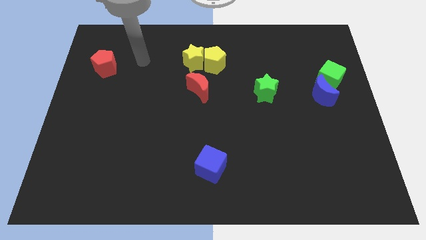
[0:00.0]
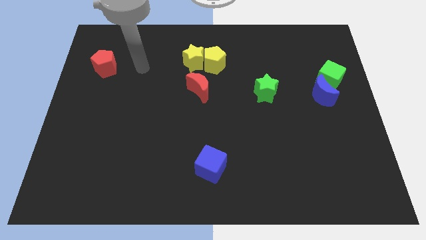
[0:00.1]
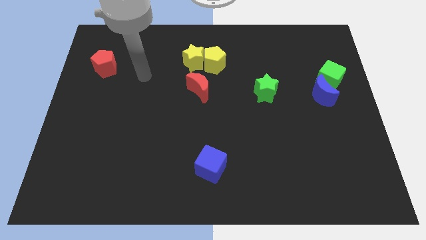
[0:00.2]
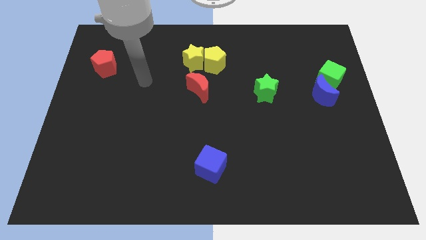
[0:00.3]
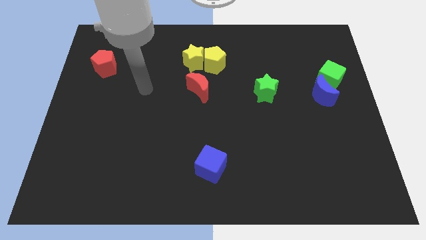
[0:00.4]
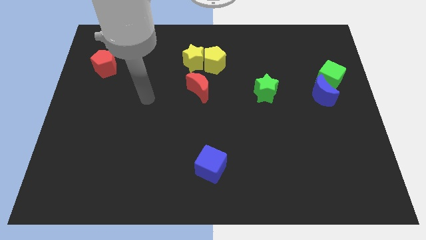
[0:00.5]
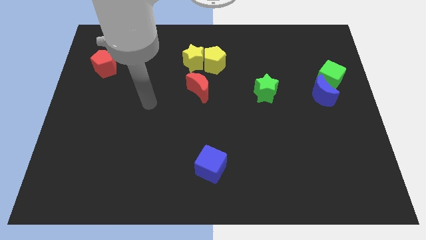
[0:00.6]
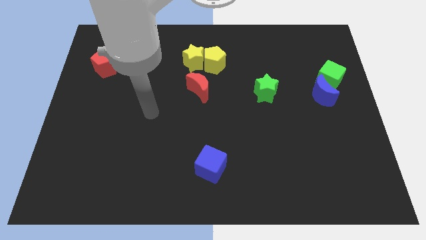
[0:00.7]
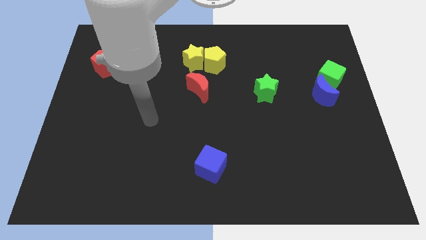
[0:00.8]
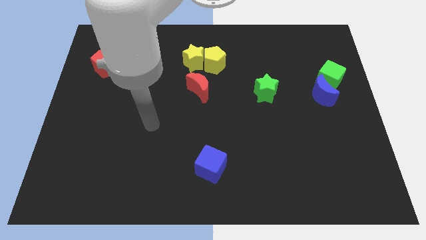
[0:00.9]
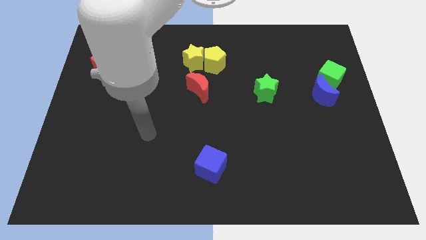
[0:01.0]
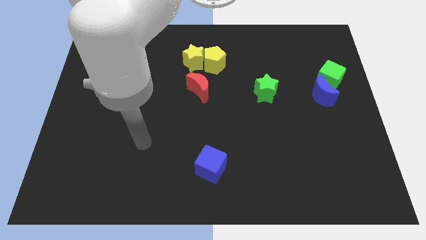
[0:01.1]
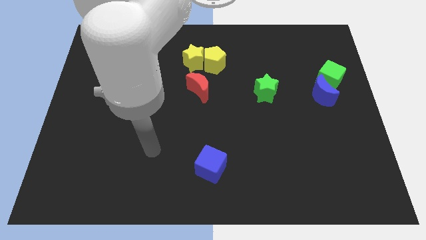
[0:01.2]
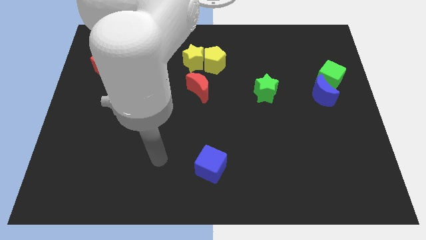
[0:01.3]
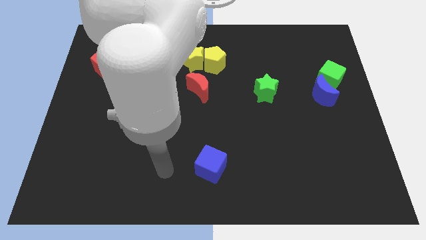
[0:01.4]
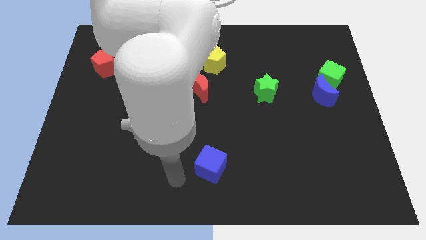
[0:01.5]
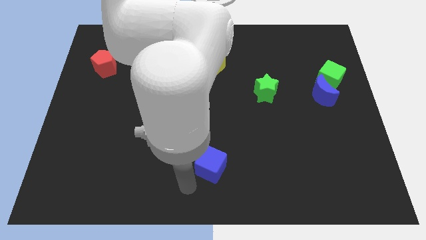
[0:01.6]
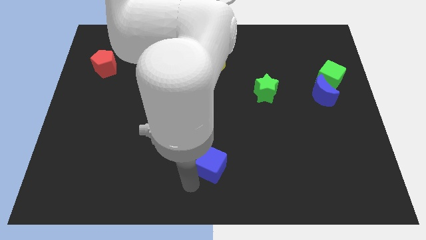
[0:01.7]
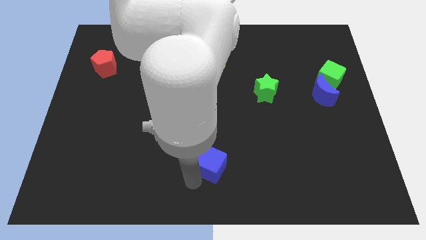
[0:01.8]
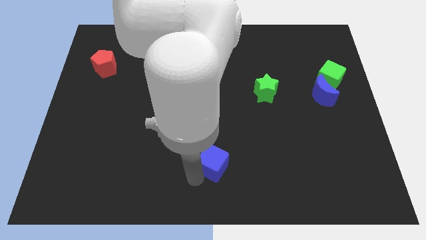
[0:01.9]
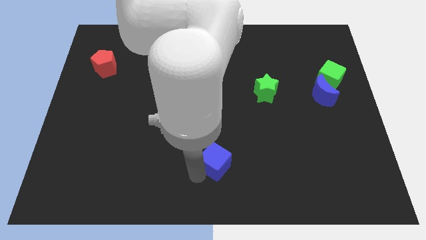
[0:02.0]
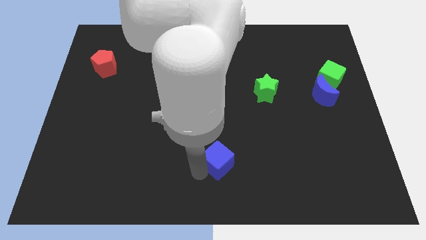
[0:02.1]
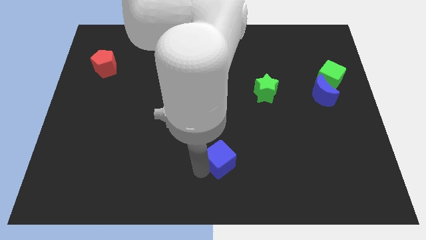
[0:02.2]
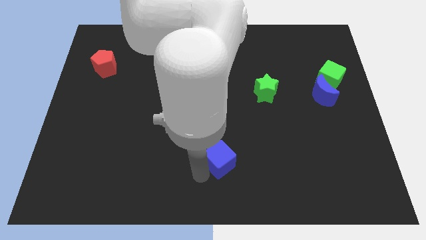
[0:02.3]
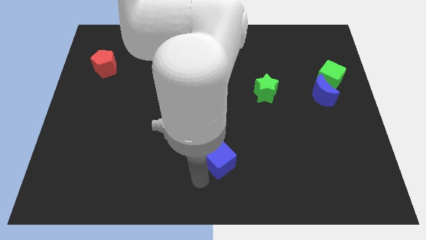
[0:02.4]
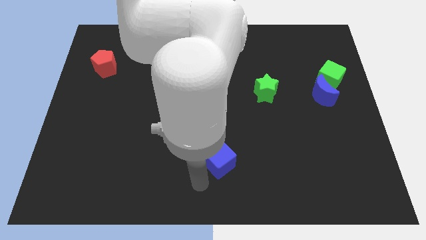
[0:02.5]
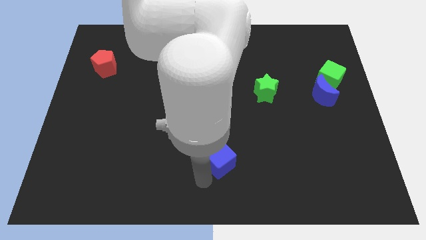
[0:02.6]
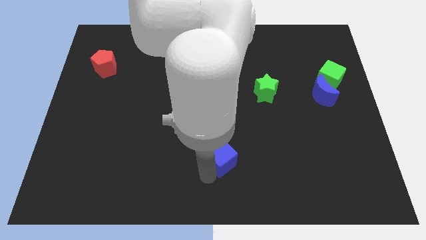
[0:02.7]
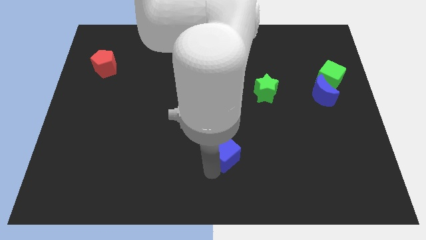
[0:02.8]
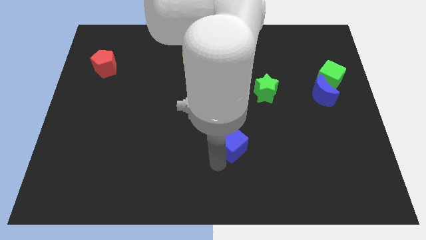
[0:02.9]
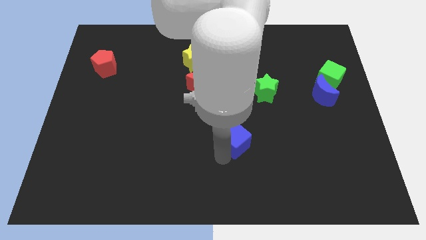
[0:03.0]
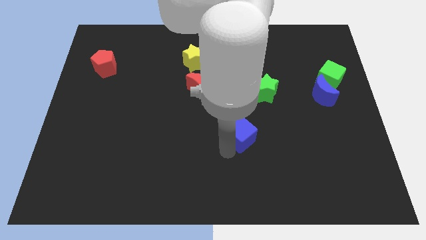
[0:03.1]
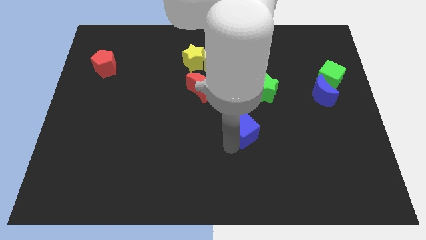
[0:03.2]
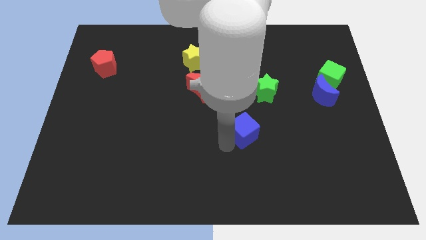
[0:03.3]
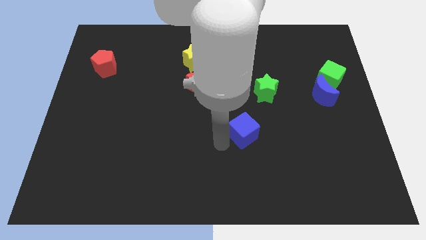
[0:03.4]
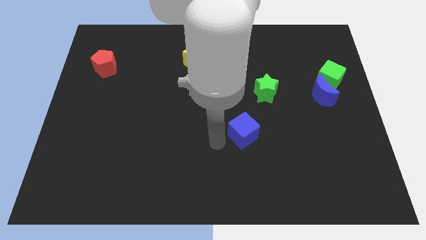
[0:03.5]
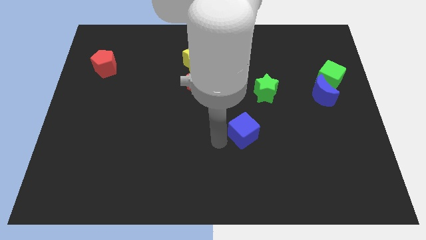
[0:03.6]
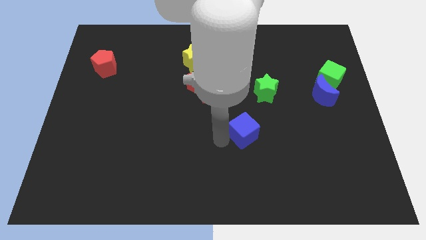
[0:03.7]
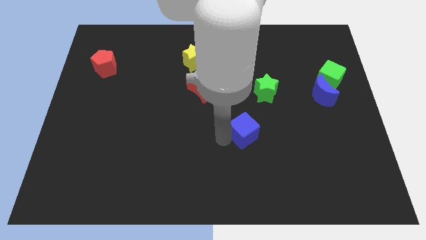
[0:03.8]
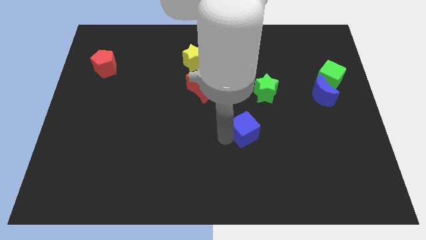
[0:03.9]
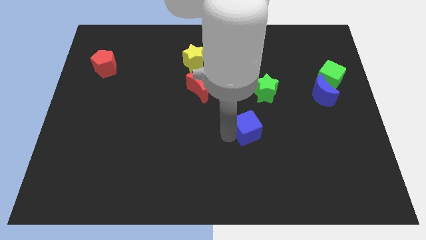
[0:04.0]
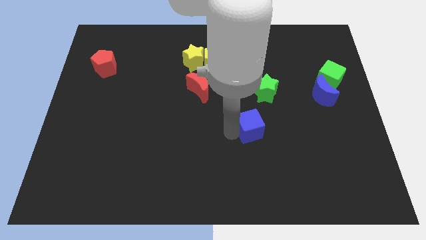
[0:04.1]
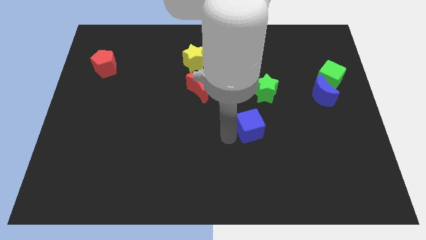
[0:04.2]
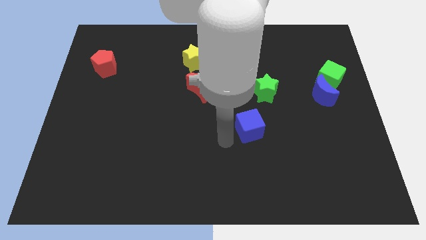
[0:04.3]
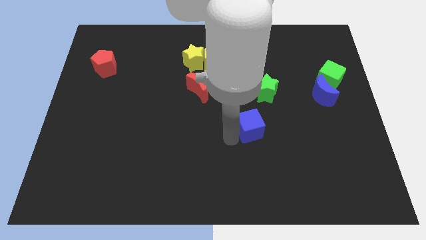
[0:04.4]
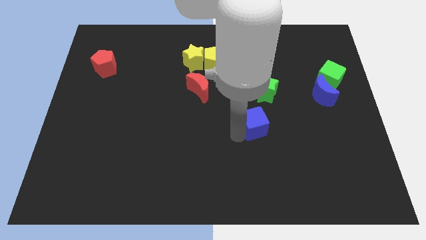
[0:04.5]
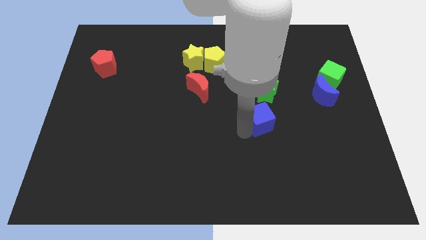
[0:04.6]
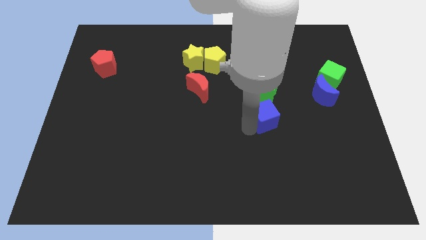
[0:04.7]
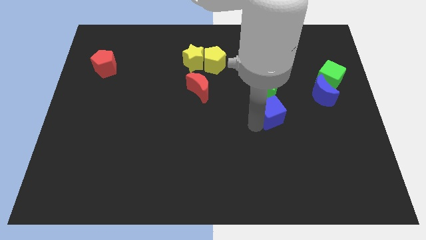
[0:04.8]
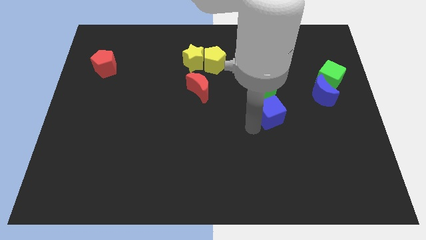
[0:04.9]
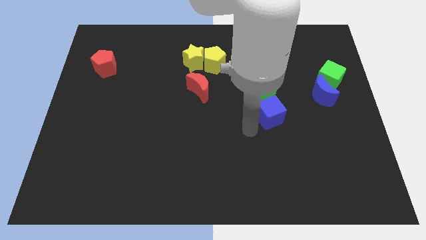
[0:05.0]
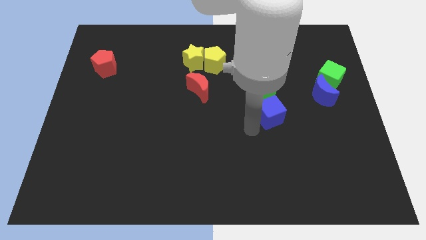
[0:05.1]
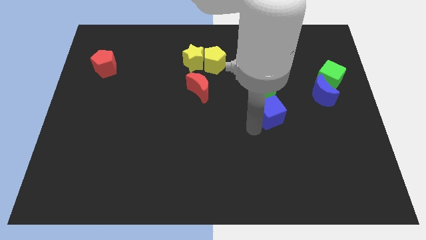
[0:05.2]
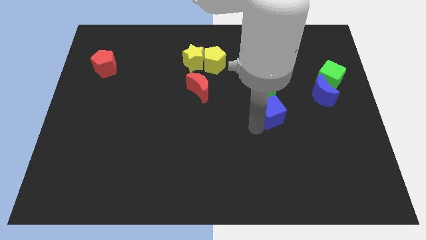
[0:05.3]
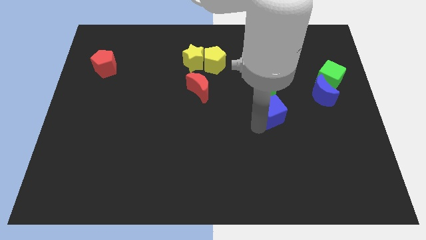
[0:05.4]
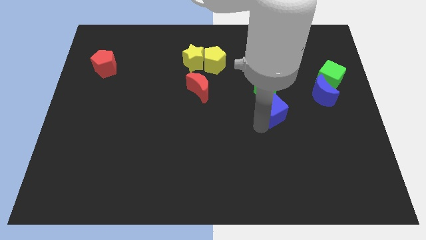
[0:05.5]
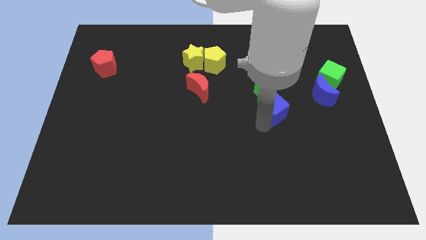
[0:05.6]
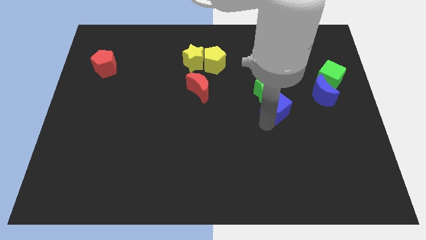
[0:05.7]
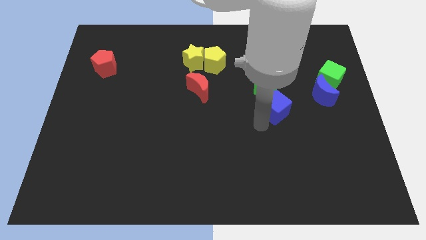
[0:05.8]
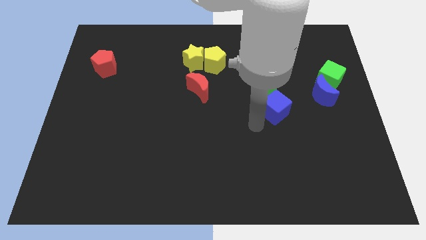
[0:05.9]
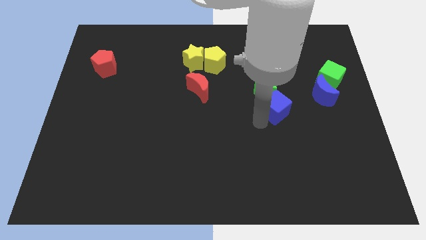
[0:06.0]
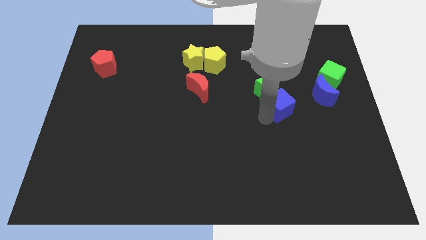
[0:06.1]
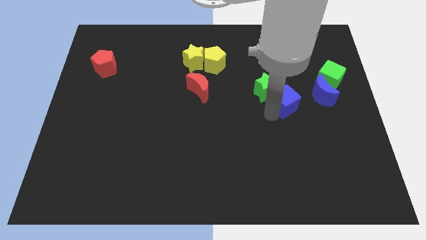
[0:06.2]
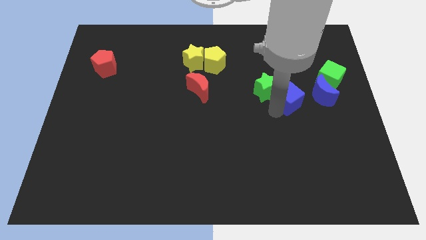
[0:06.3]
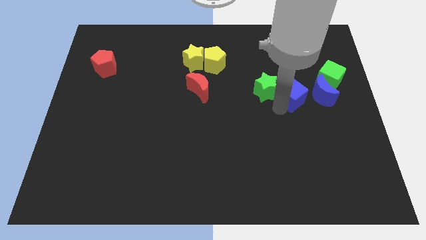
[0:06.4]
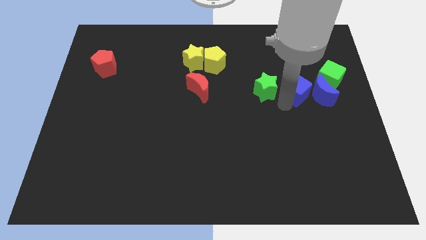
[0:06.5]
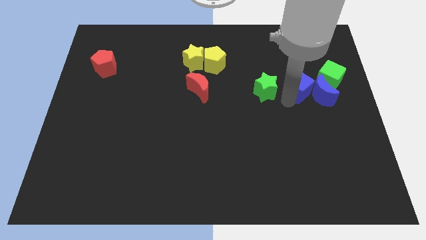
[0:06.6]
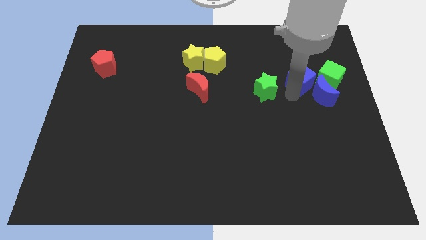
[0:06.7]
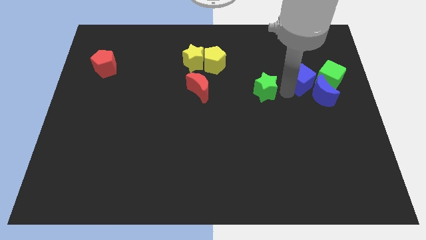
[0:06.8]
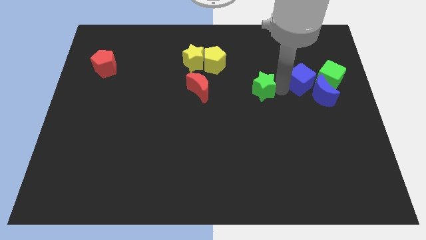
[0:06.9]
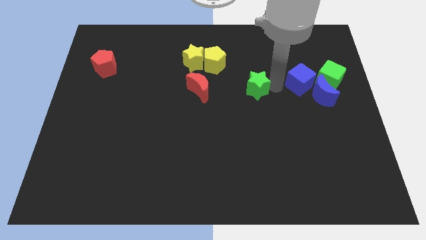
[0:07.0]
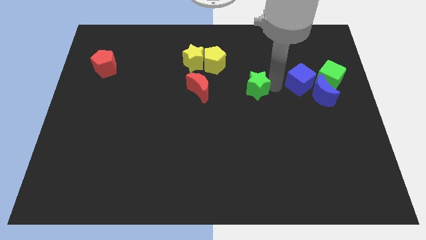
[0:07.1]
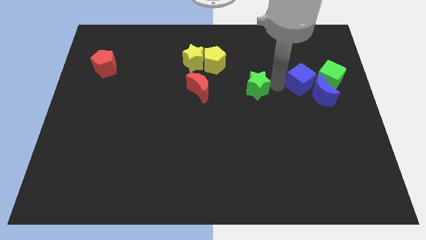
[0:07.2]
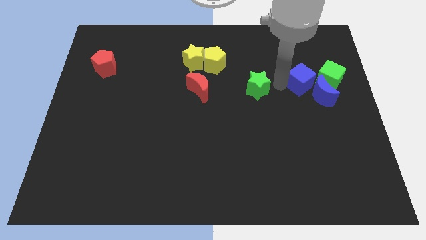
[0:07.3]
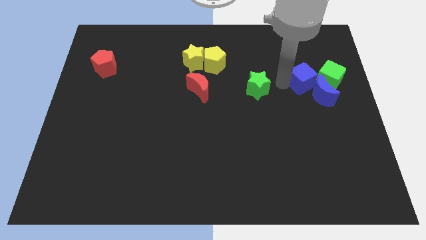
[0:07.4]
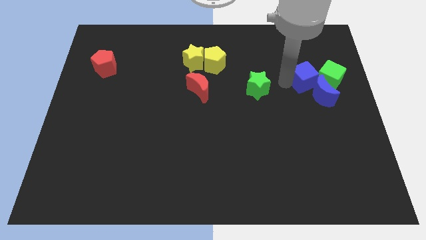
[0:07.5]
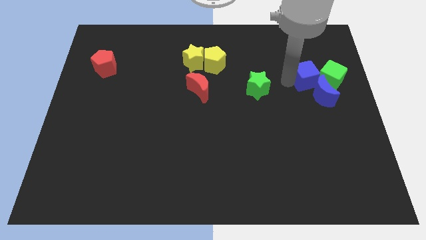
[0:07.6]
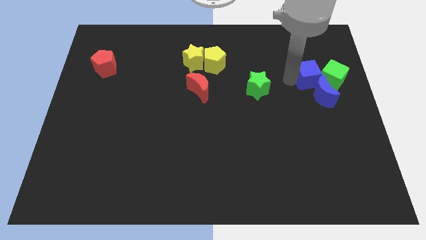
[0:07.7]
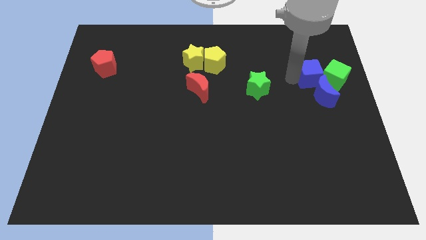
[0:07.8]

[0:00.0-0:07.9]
put the blue cube close to the green cube
